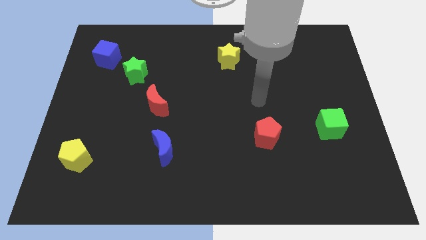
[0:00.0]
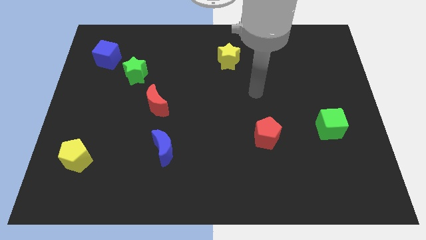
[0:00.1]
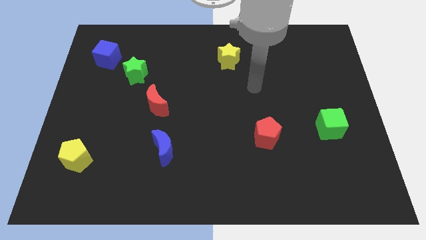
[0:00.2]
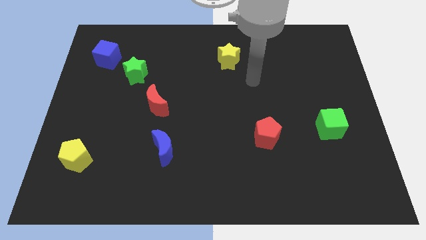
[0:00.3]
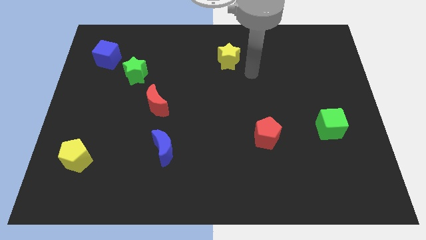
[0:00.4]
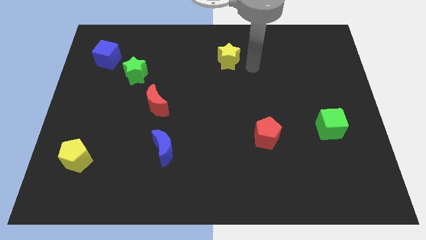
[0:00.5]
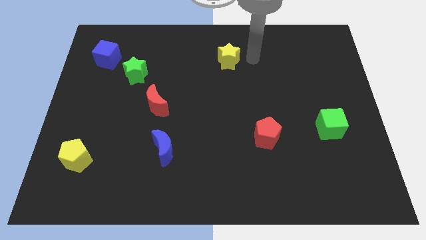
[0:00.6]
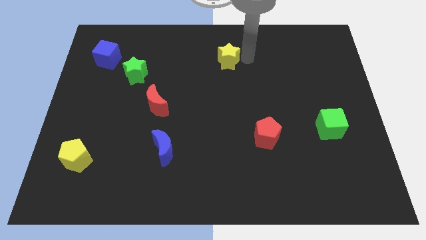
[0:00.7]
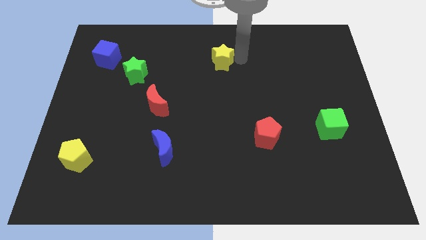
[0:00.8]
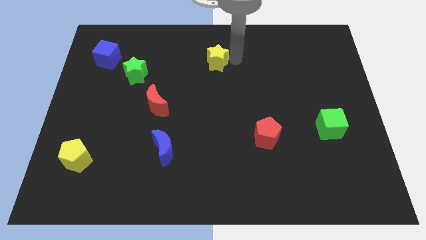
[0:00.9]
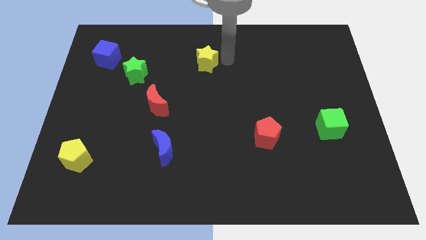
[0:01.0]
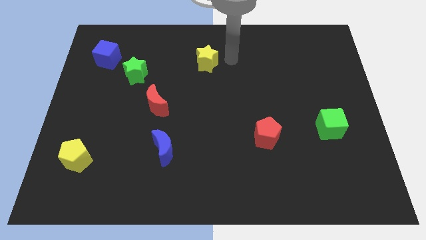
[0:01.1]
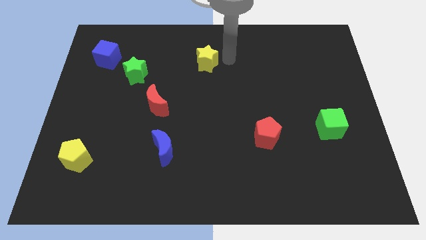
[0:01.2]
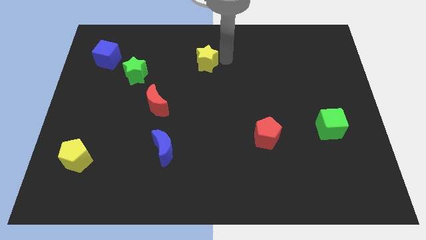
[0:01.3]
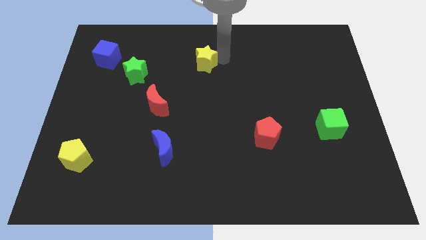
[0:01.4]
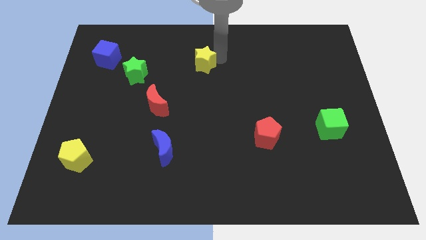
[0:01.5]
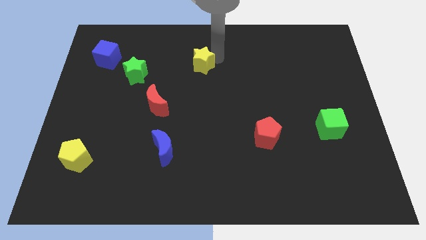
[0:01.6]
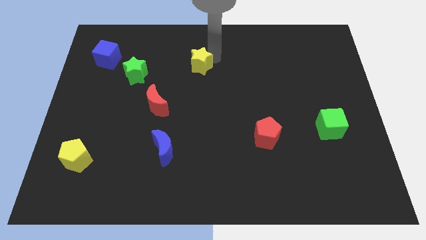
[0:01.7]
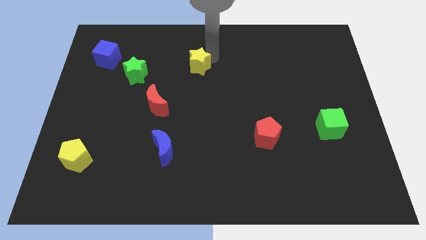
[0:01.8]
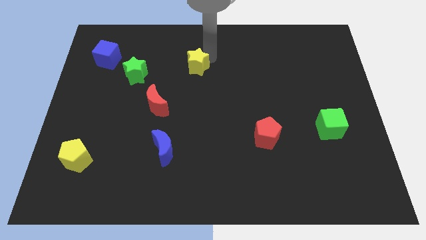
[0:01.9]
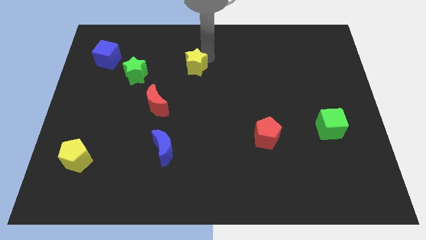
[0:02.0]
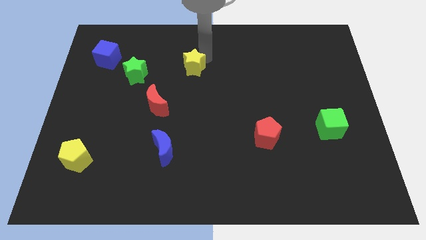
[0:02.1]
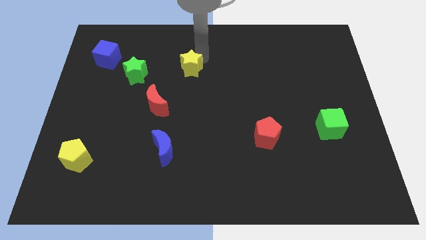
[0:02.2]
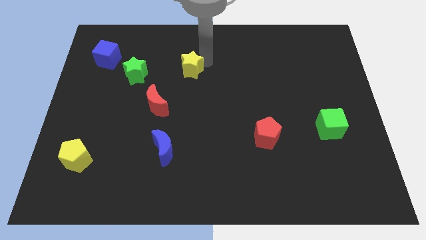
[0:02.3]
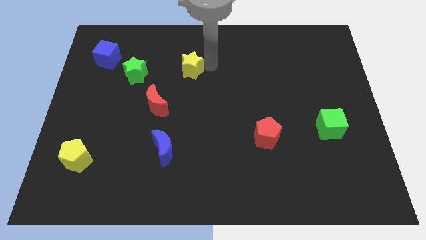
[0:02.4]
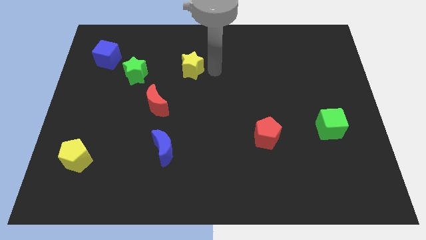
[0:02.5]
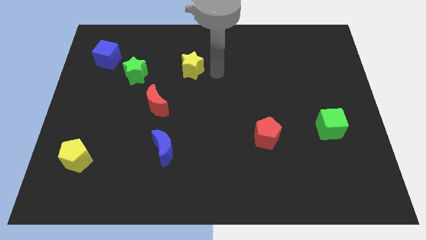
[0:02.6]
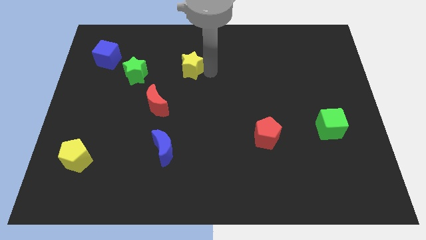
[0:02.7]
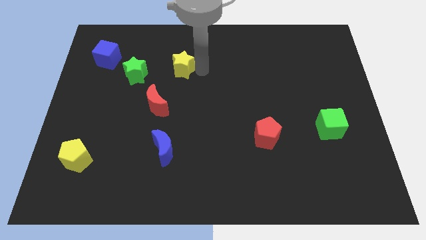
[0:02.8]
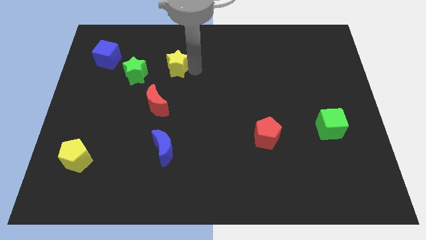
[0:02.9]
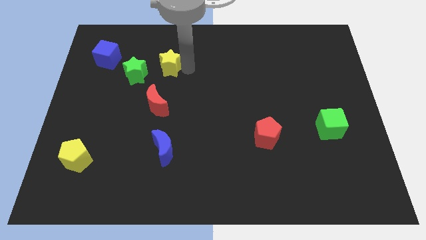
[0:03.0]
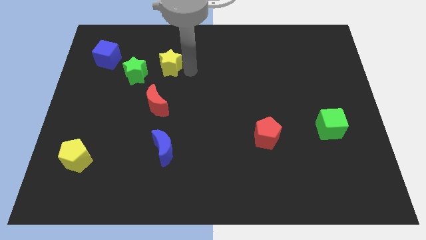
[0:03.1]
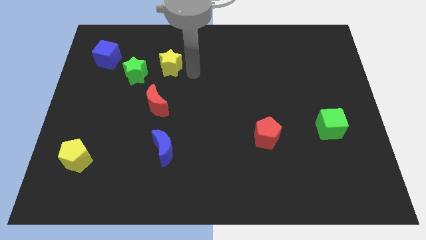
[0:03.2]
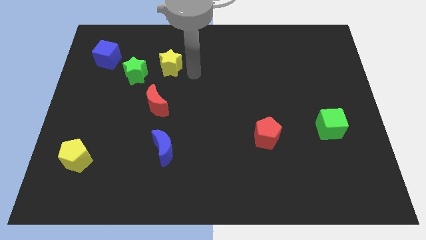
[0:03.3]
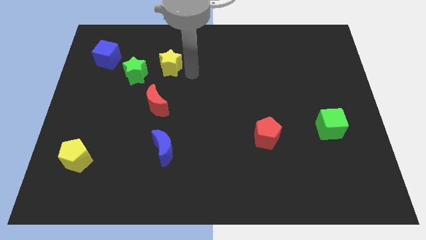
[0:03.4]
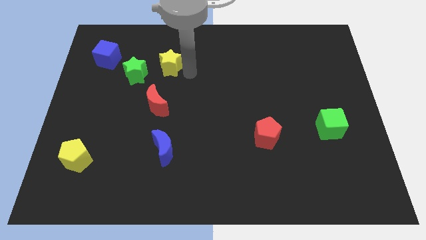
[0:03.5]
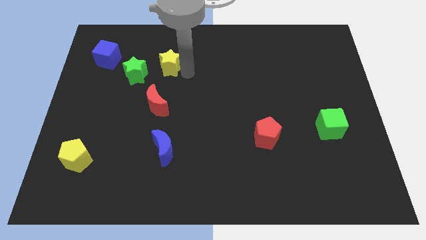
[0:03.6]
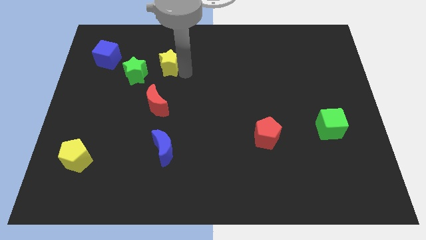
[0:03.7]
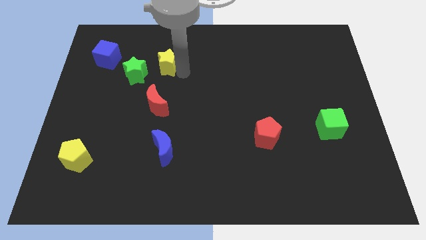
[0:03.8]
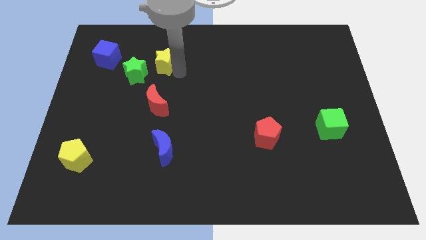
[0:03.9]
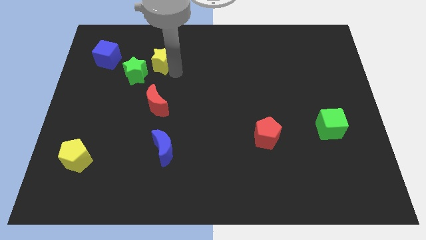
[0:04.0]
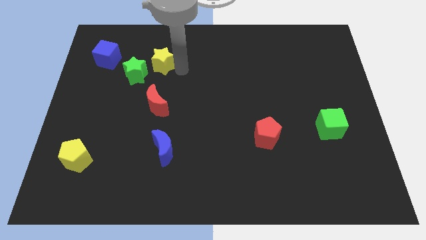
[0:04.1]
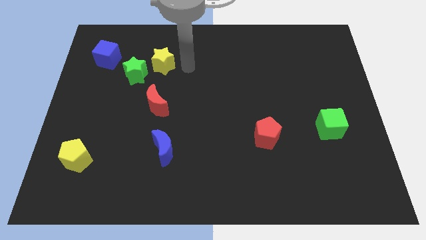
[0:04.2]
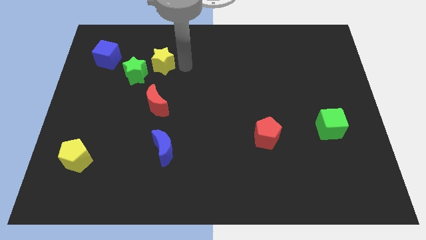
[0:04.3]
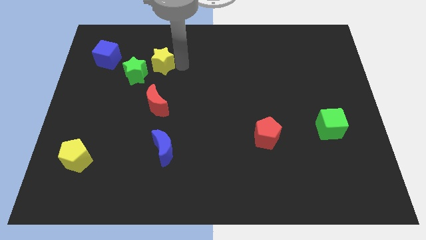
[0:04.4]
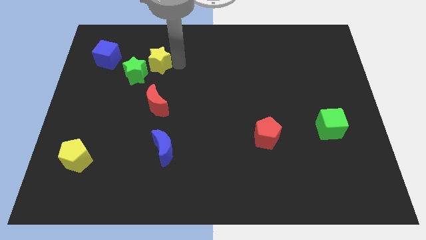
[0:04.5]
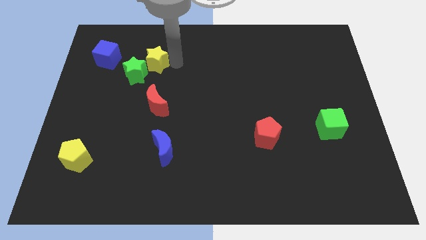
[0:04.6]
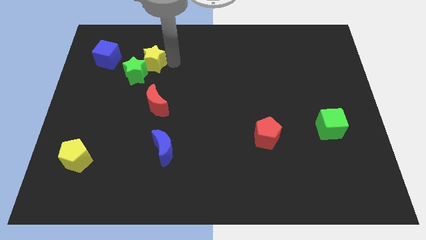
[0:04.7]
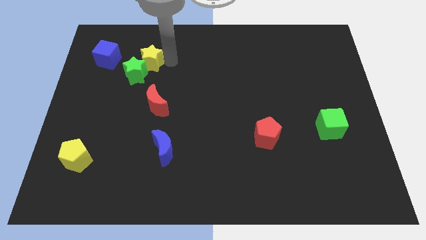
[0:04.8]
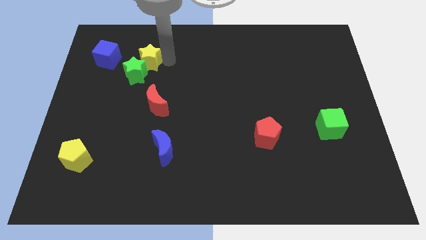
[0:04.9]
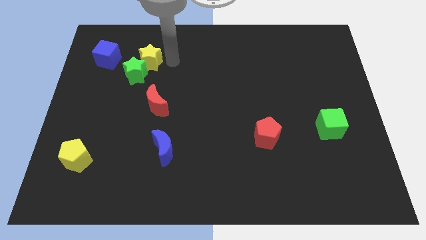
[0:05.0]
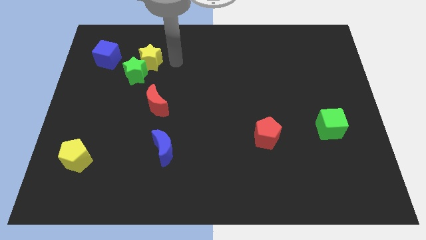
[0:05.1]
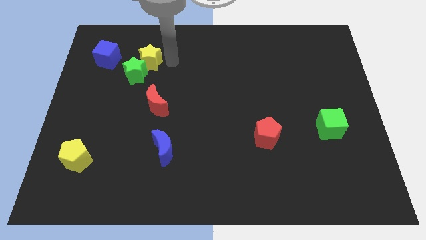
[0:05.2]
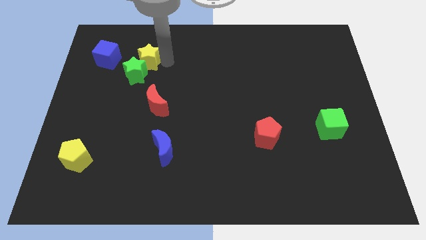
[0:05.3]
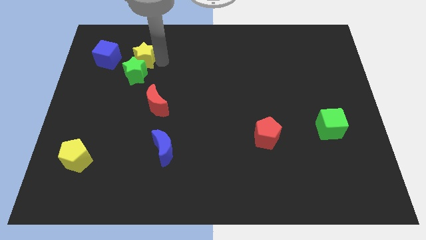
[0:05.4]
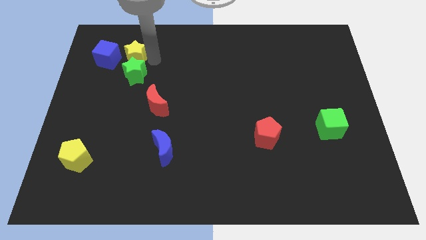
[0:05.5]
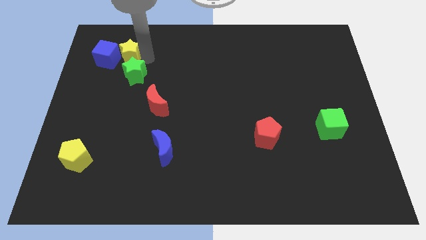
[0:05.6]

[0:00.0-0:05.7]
move the yellow star next to the blue cube

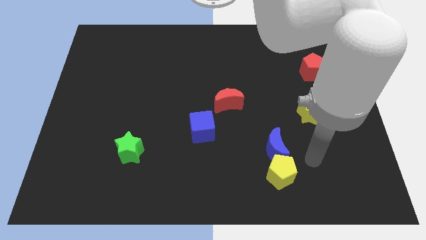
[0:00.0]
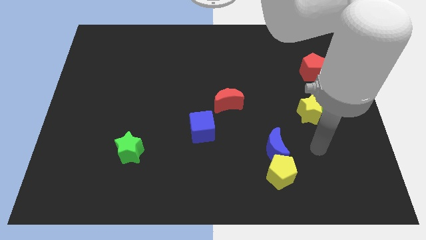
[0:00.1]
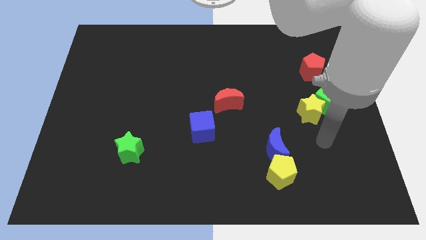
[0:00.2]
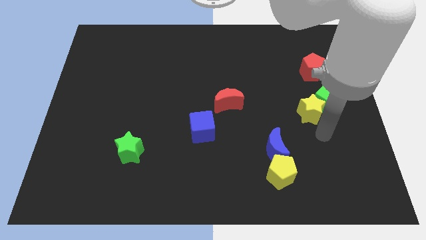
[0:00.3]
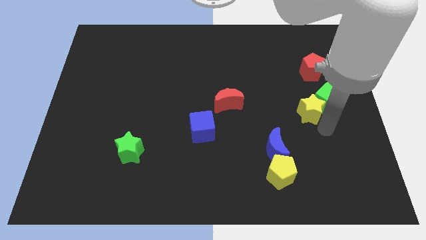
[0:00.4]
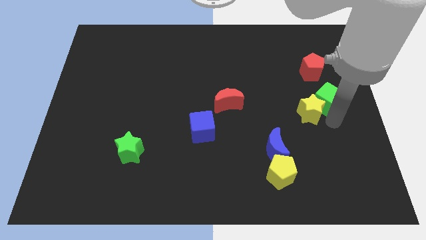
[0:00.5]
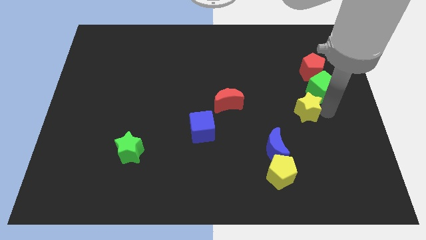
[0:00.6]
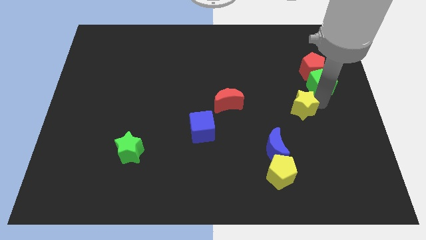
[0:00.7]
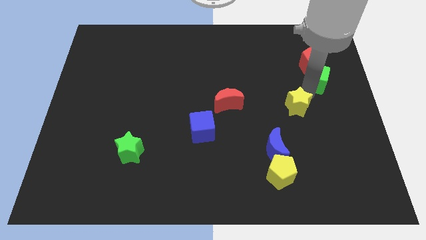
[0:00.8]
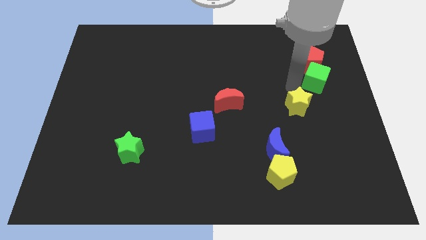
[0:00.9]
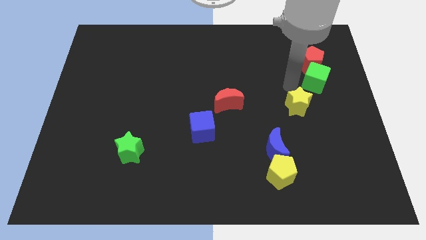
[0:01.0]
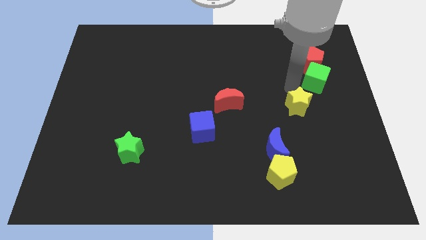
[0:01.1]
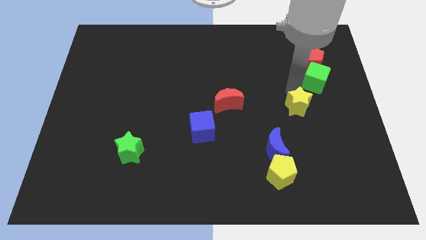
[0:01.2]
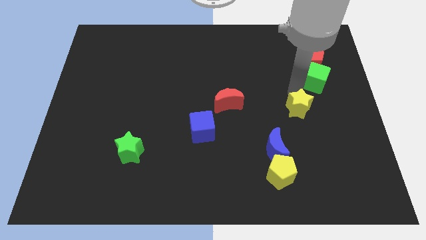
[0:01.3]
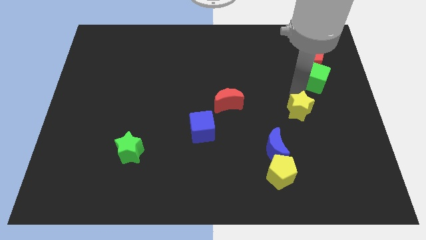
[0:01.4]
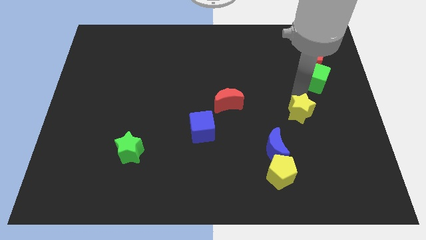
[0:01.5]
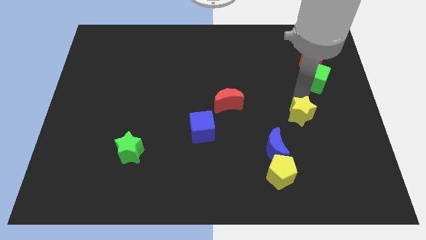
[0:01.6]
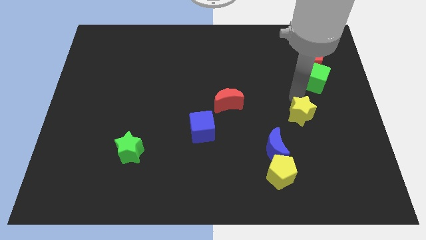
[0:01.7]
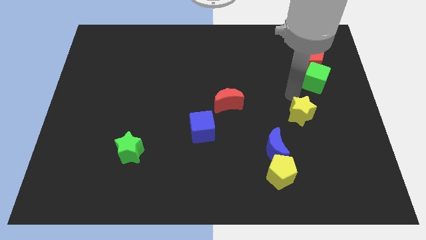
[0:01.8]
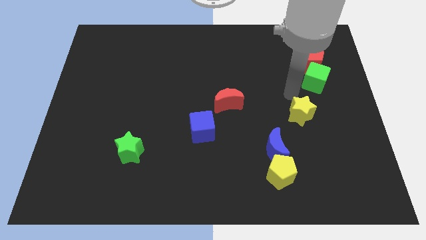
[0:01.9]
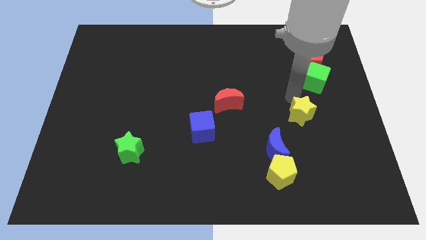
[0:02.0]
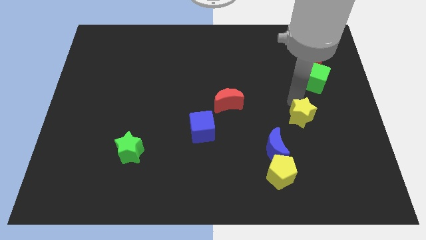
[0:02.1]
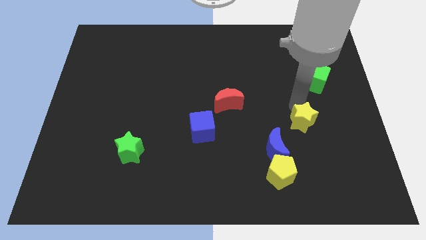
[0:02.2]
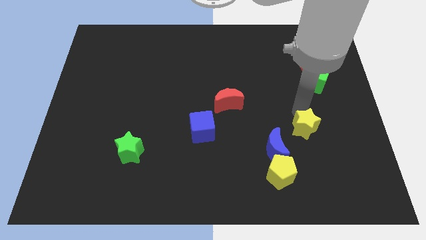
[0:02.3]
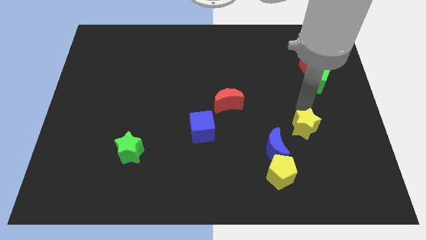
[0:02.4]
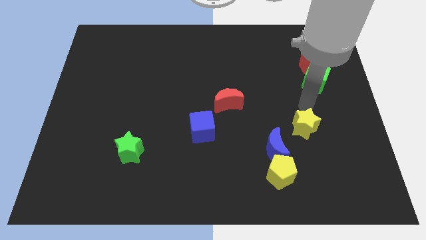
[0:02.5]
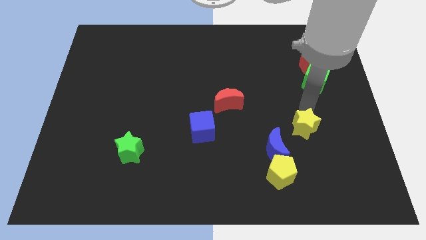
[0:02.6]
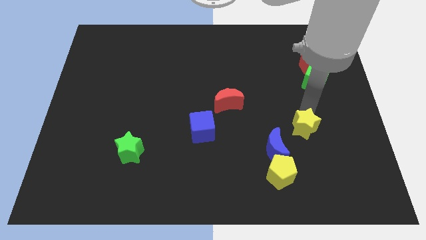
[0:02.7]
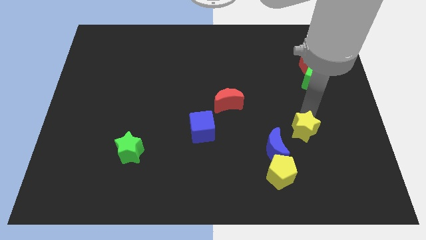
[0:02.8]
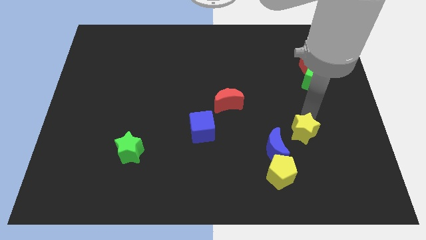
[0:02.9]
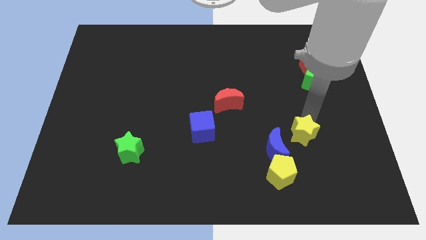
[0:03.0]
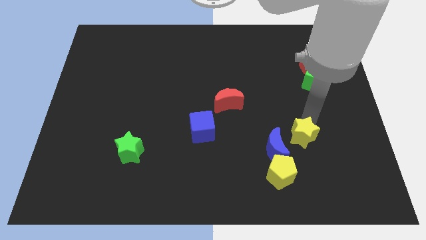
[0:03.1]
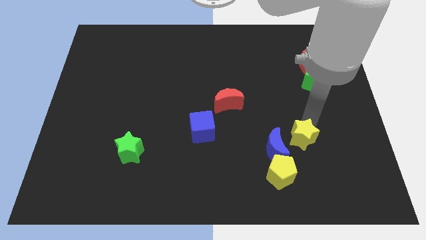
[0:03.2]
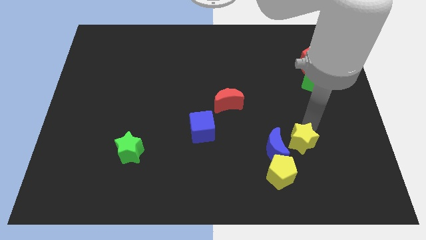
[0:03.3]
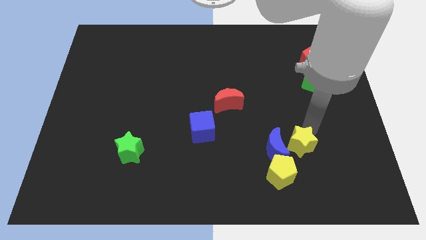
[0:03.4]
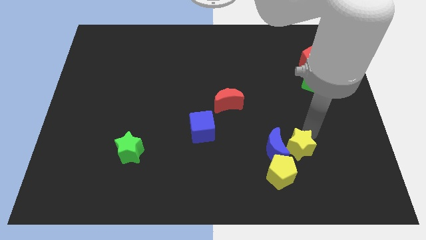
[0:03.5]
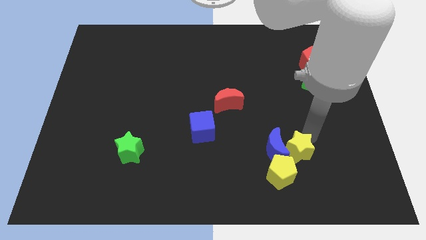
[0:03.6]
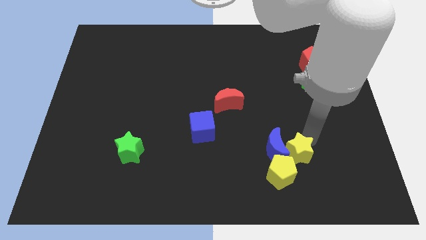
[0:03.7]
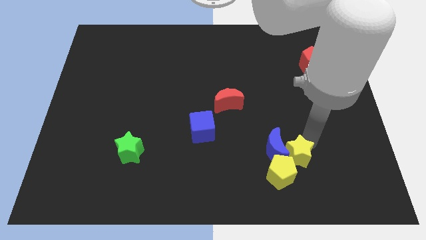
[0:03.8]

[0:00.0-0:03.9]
slide the yellow star towards the yellow pentagon
